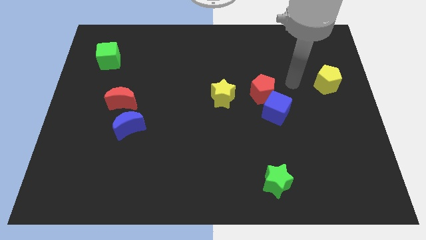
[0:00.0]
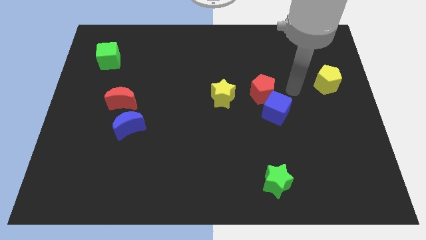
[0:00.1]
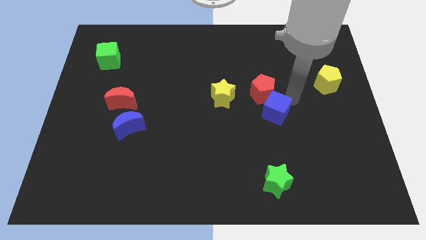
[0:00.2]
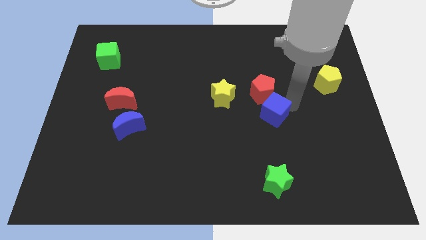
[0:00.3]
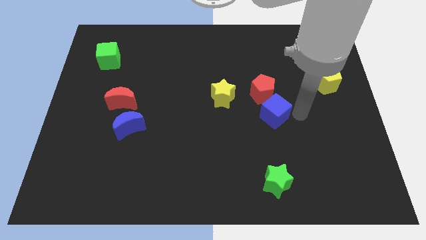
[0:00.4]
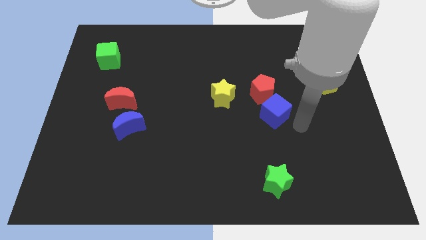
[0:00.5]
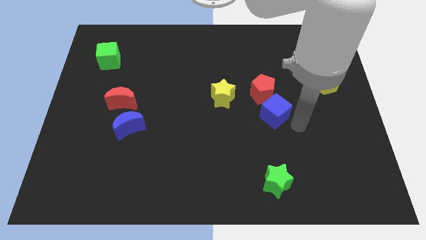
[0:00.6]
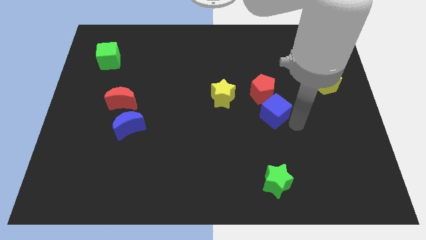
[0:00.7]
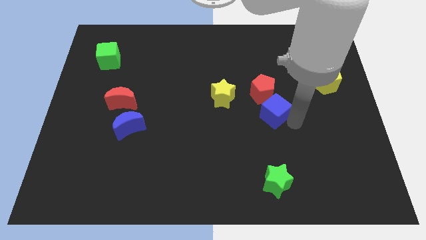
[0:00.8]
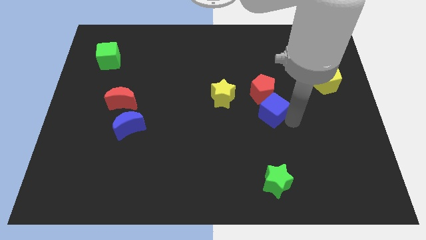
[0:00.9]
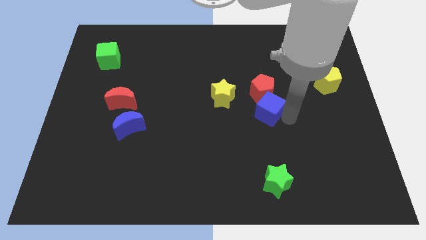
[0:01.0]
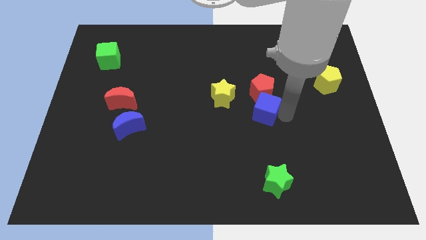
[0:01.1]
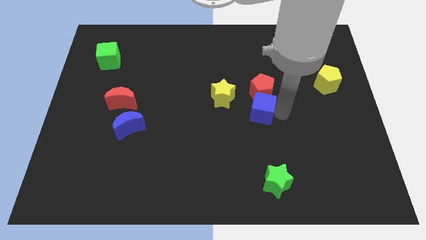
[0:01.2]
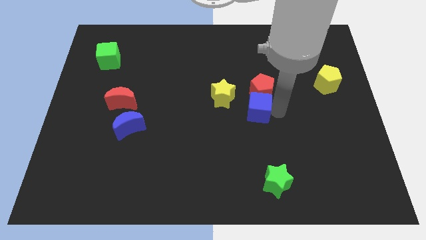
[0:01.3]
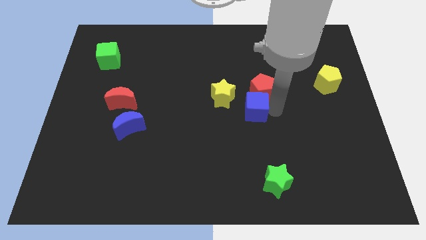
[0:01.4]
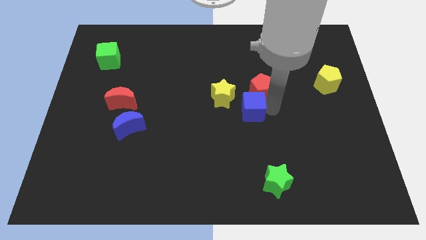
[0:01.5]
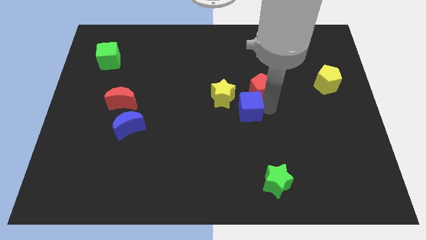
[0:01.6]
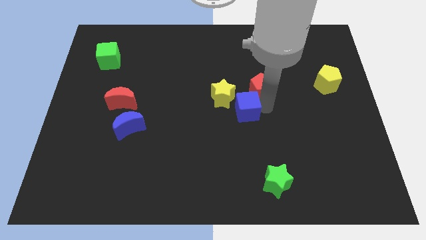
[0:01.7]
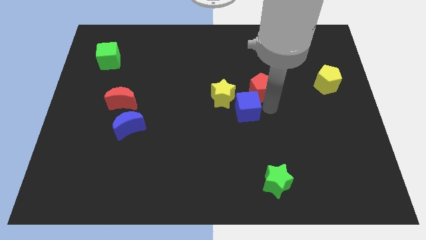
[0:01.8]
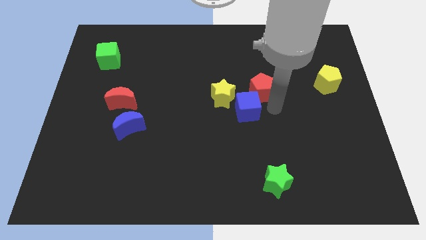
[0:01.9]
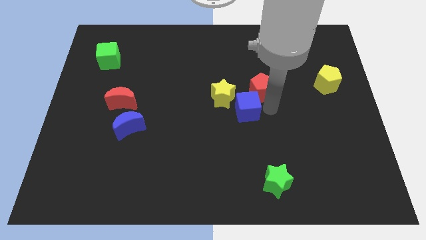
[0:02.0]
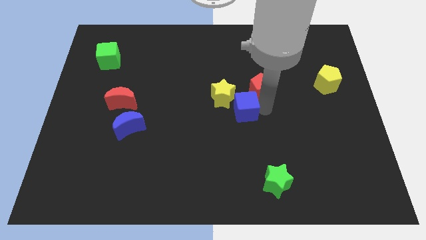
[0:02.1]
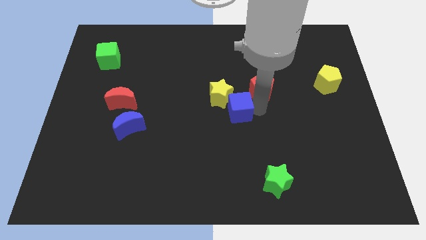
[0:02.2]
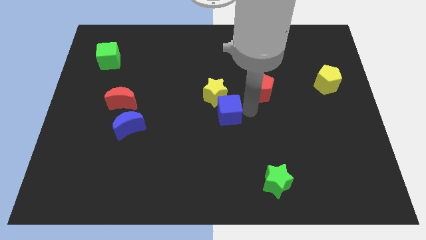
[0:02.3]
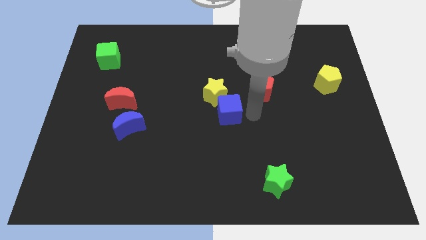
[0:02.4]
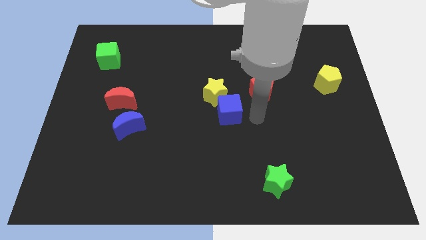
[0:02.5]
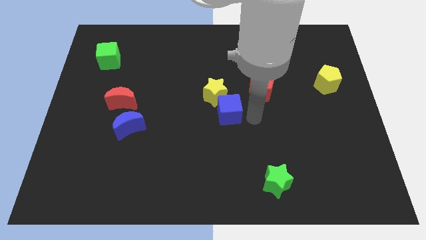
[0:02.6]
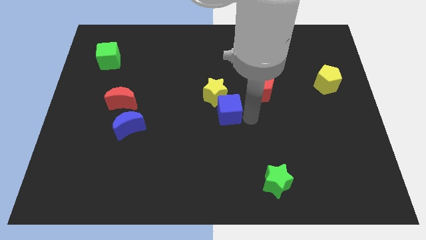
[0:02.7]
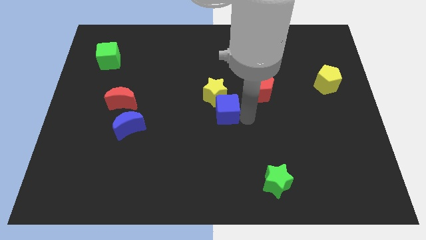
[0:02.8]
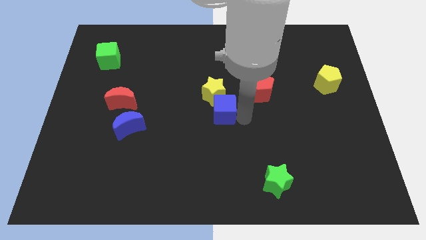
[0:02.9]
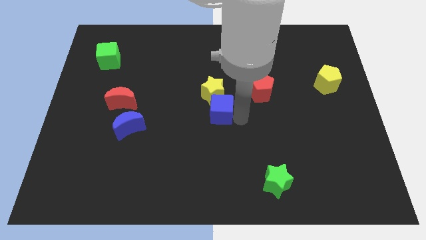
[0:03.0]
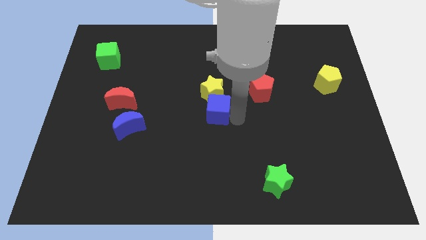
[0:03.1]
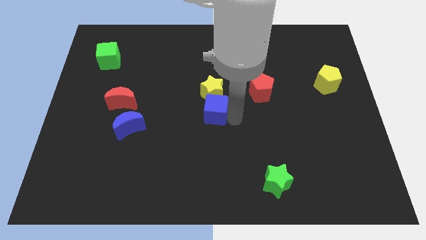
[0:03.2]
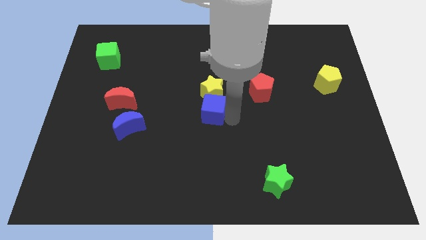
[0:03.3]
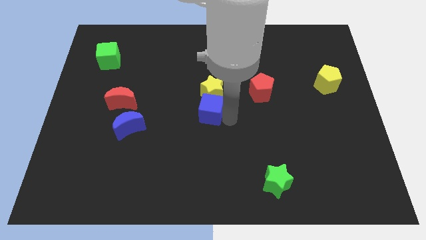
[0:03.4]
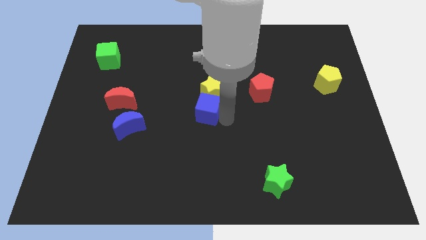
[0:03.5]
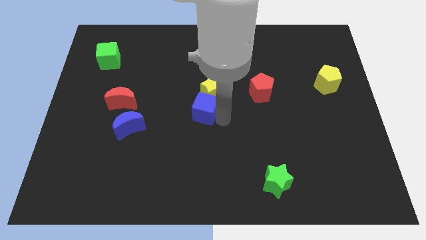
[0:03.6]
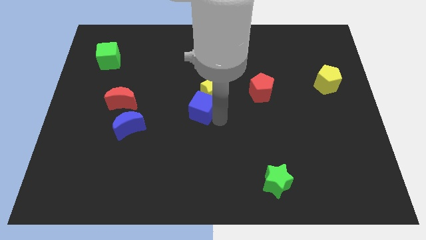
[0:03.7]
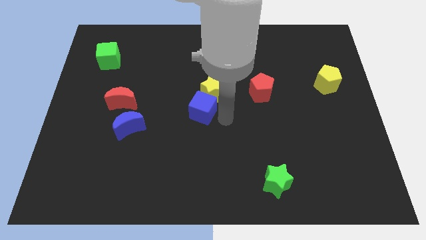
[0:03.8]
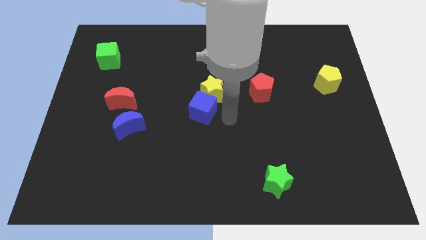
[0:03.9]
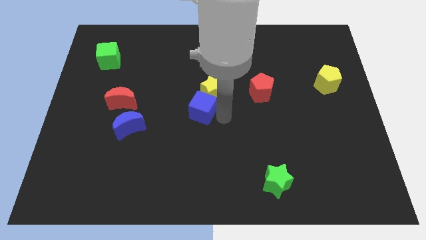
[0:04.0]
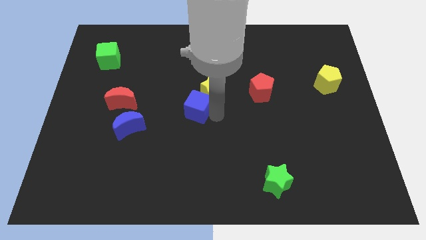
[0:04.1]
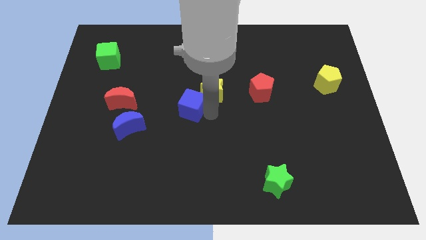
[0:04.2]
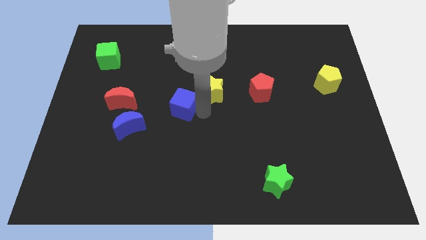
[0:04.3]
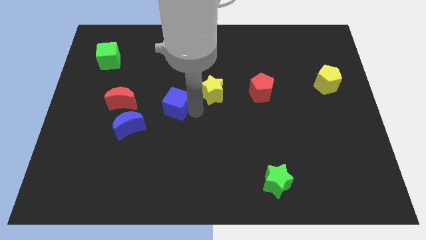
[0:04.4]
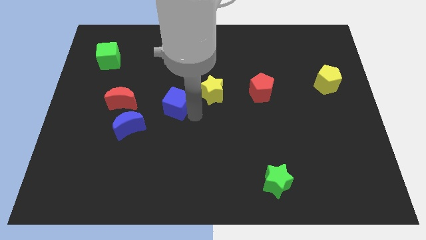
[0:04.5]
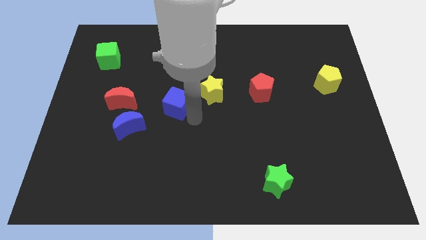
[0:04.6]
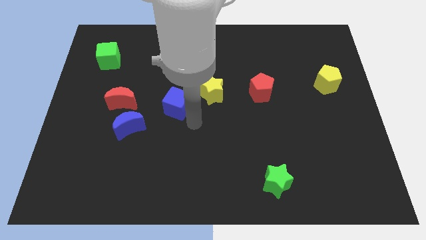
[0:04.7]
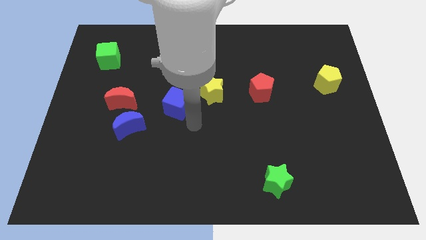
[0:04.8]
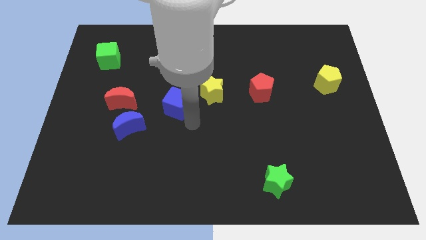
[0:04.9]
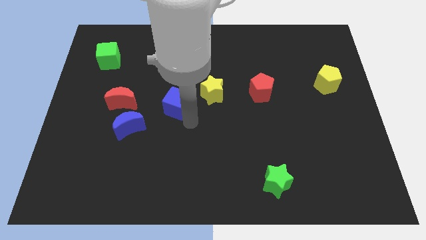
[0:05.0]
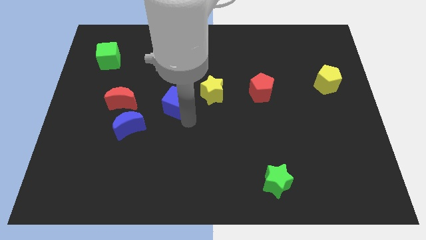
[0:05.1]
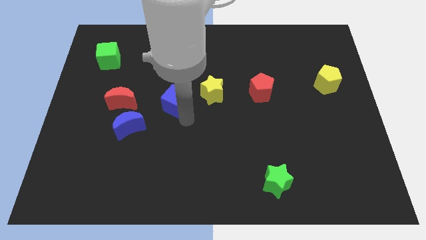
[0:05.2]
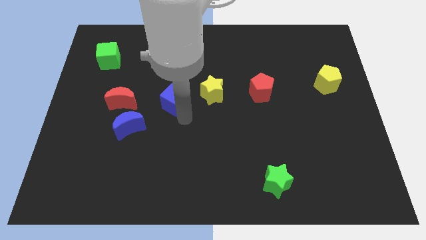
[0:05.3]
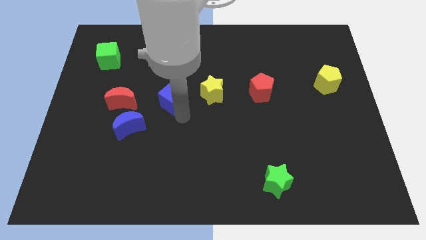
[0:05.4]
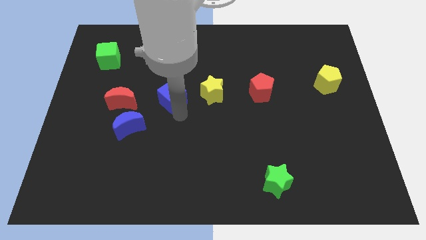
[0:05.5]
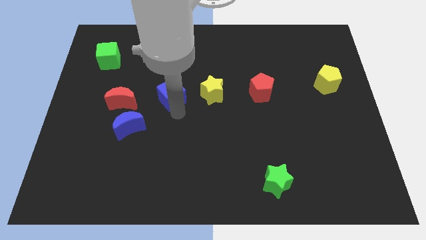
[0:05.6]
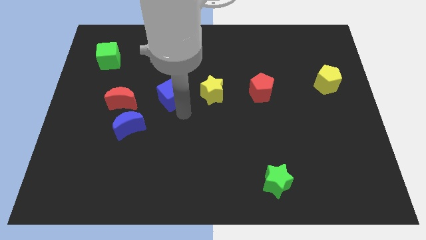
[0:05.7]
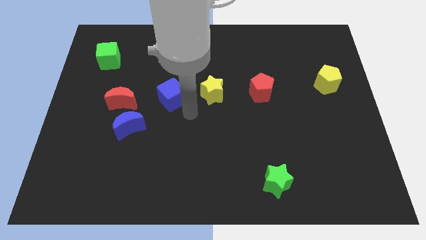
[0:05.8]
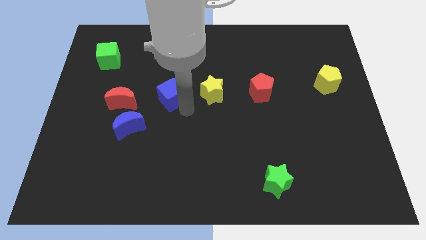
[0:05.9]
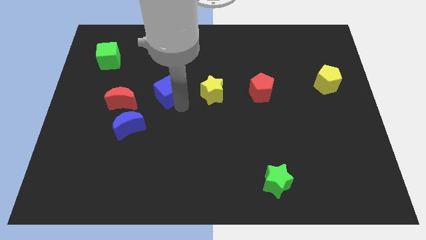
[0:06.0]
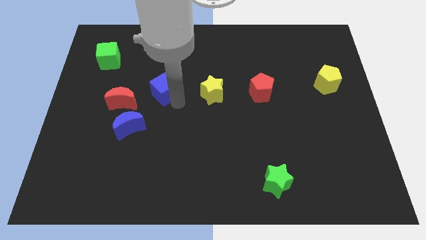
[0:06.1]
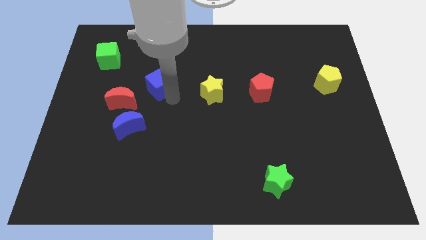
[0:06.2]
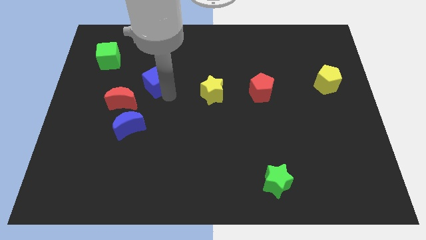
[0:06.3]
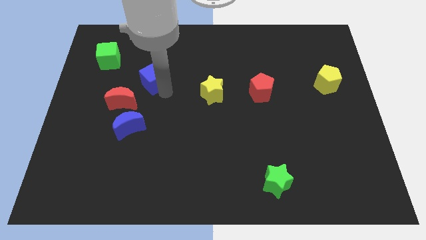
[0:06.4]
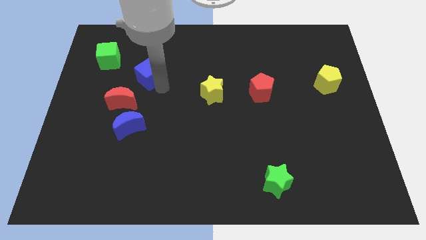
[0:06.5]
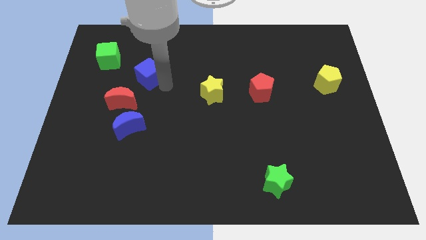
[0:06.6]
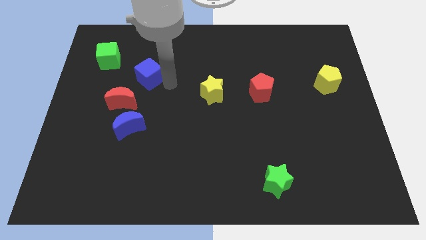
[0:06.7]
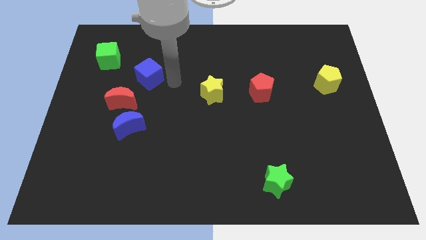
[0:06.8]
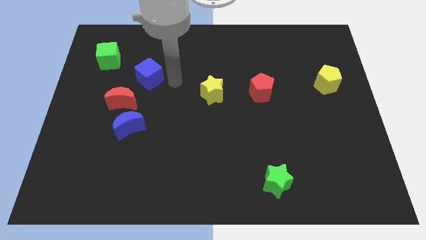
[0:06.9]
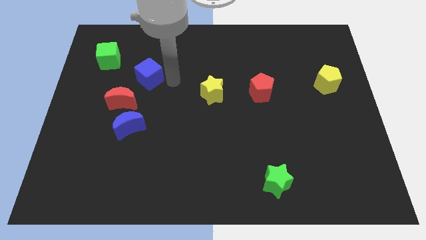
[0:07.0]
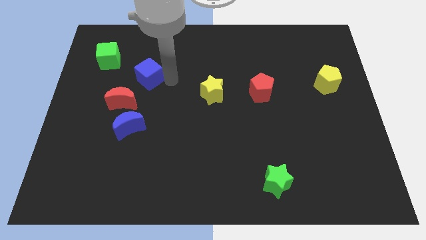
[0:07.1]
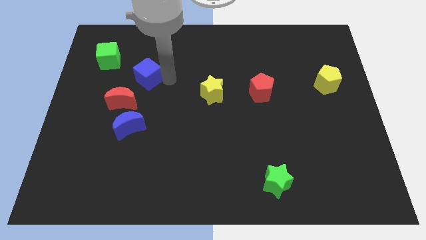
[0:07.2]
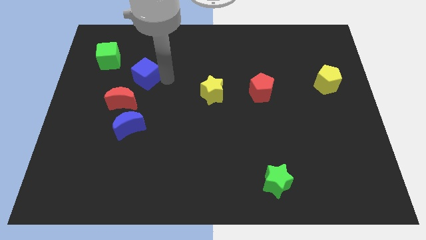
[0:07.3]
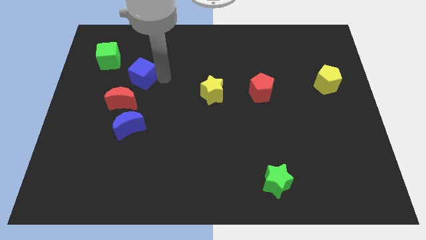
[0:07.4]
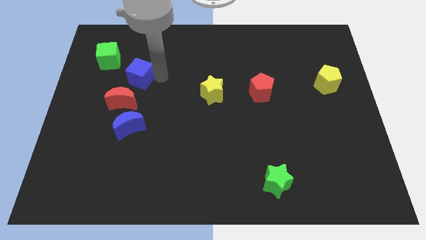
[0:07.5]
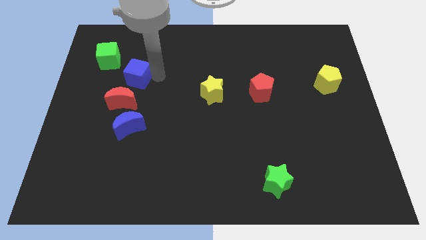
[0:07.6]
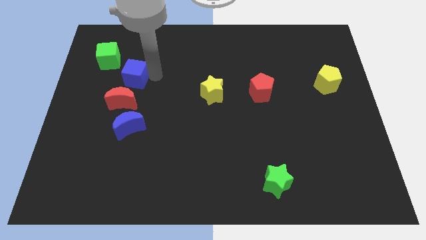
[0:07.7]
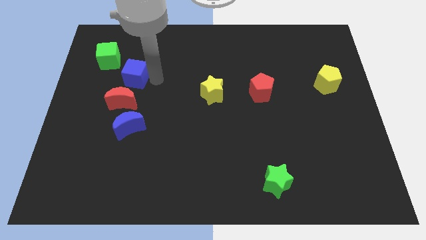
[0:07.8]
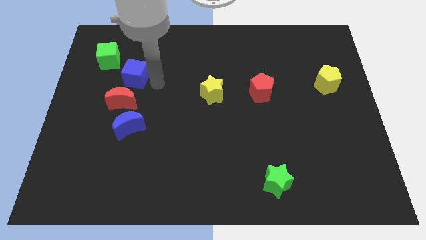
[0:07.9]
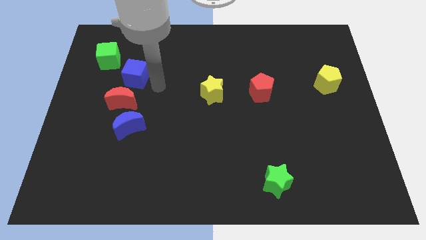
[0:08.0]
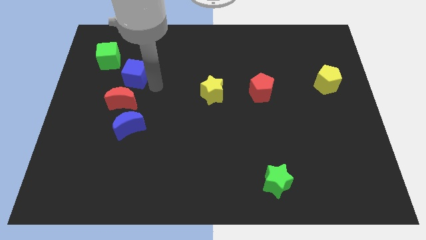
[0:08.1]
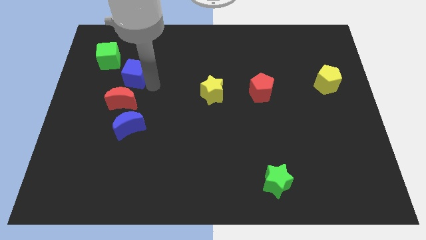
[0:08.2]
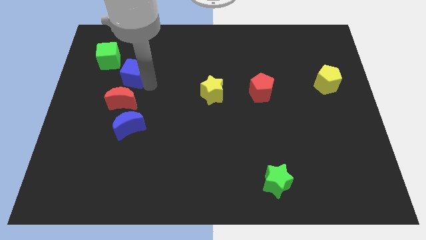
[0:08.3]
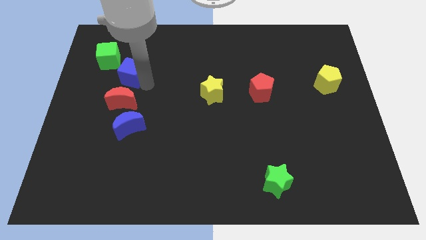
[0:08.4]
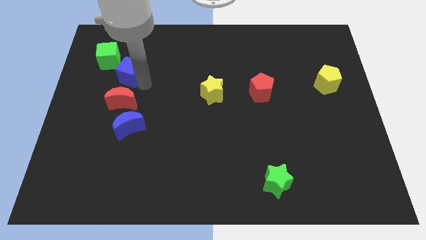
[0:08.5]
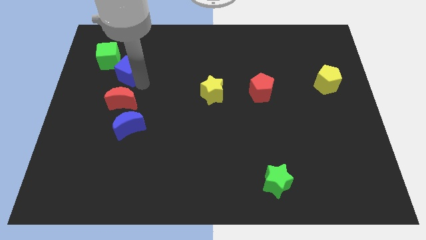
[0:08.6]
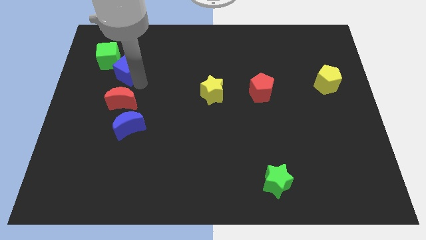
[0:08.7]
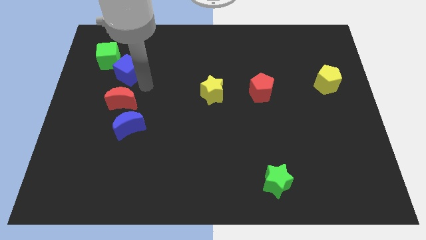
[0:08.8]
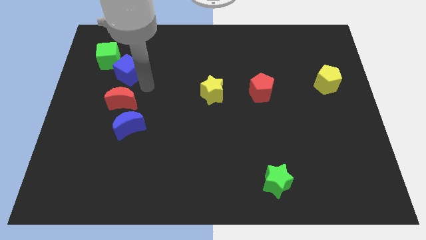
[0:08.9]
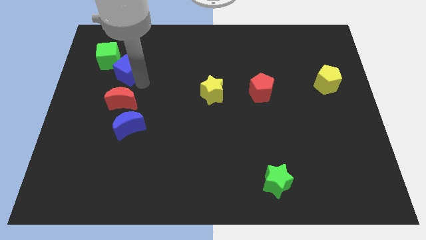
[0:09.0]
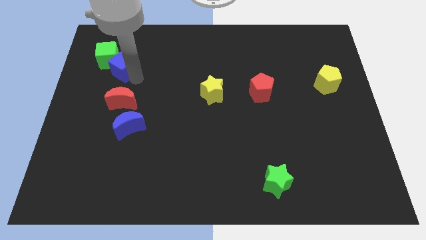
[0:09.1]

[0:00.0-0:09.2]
put the blue cube close to the green cube
